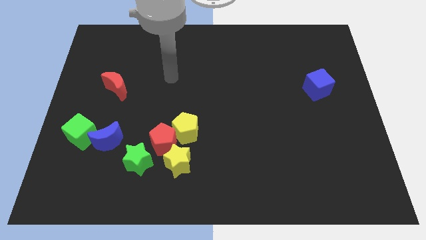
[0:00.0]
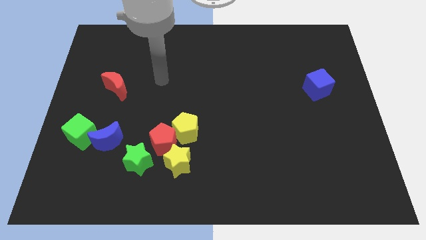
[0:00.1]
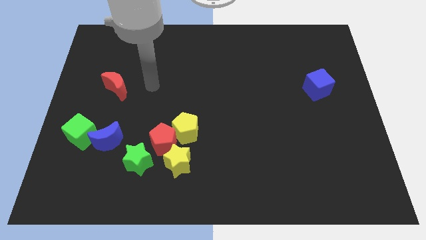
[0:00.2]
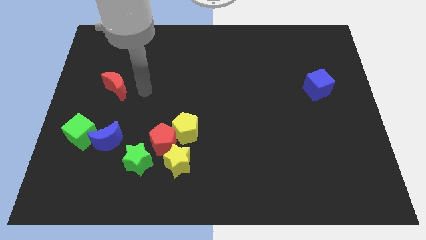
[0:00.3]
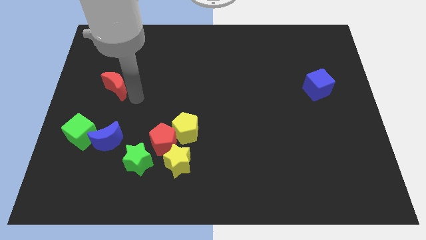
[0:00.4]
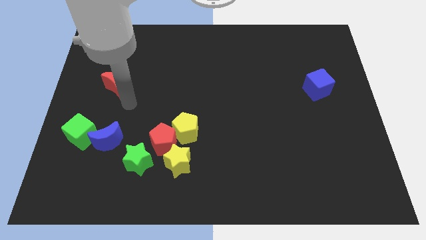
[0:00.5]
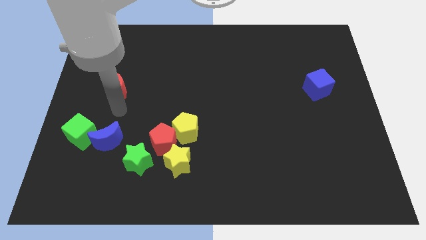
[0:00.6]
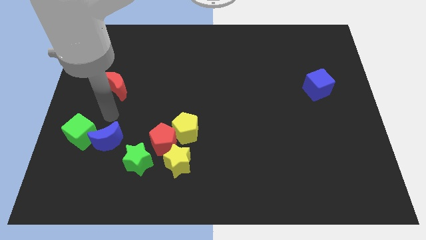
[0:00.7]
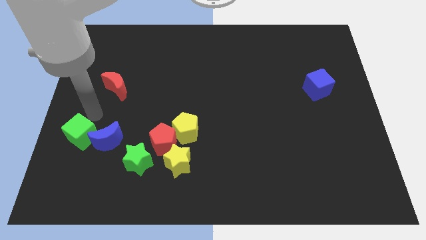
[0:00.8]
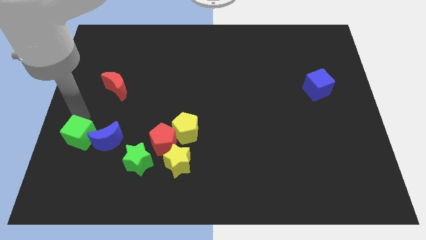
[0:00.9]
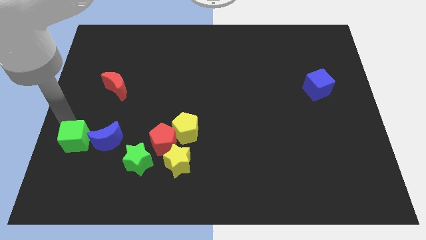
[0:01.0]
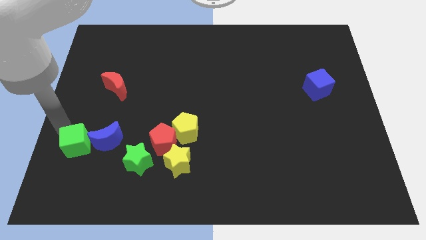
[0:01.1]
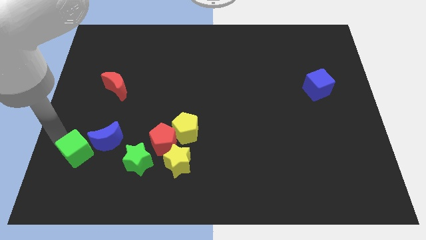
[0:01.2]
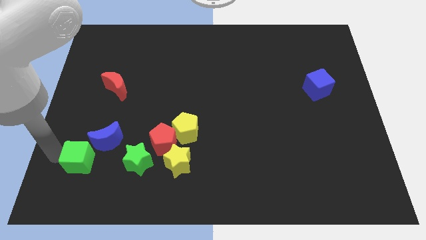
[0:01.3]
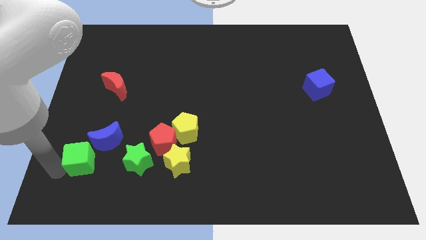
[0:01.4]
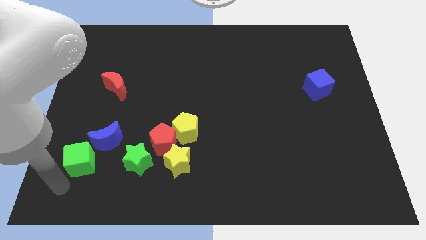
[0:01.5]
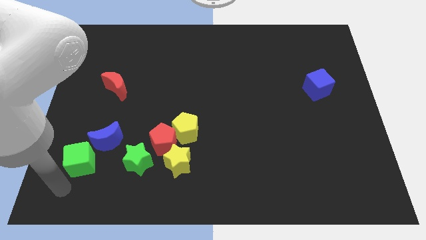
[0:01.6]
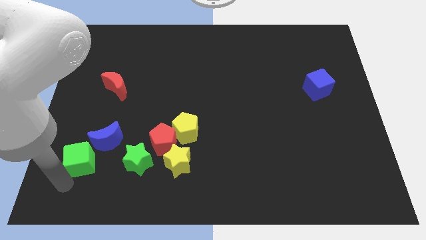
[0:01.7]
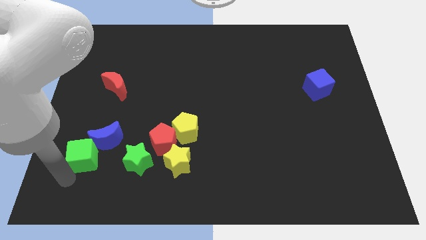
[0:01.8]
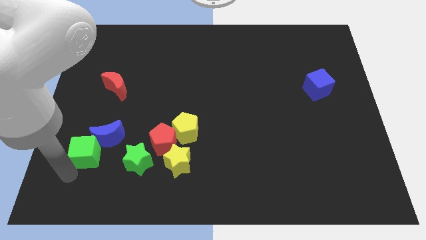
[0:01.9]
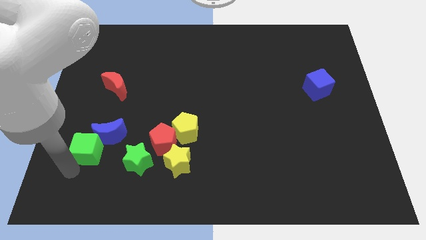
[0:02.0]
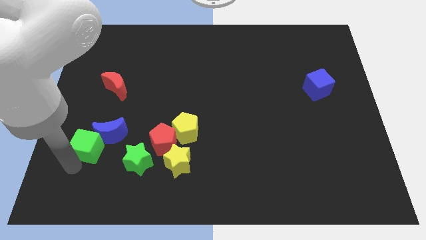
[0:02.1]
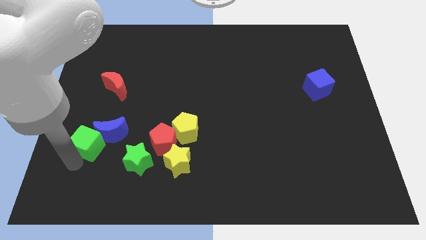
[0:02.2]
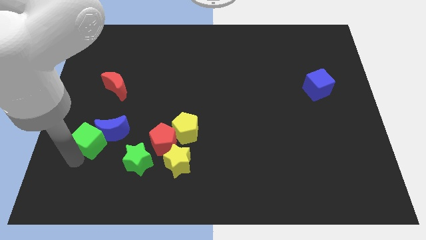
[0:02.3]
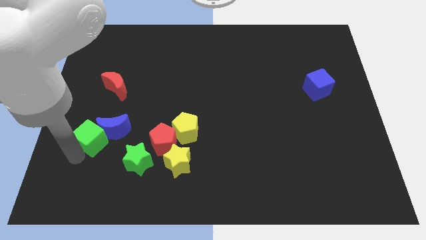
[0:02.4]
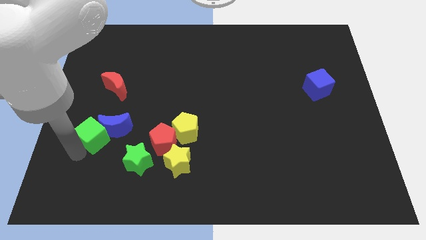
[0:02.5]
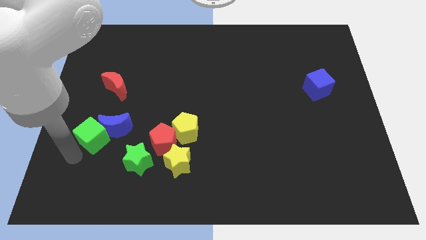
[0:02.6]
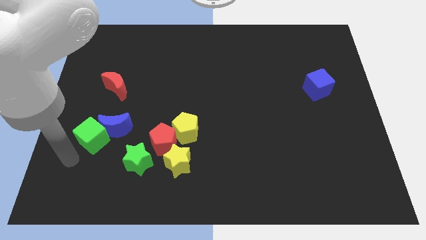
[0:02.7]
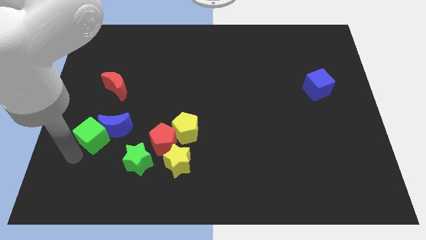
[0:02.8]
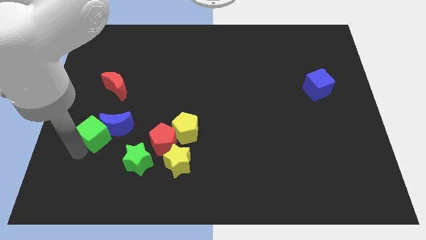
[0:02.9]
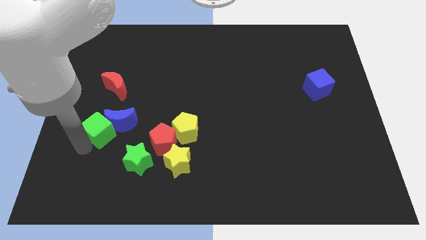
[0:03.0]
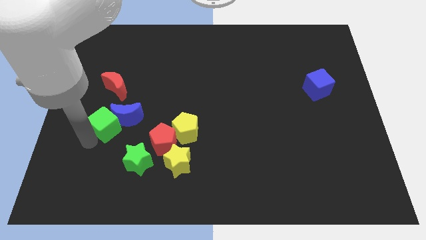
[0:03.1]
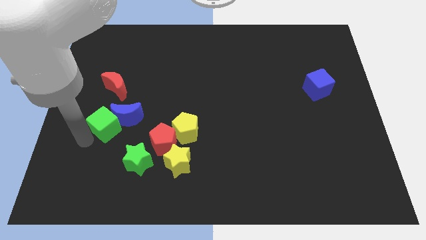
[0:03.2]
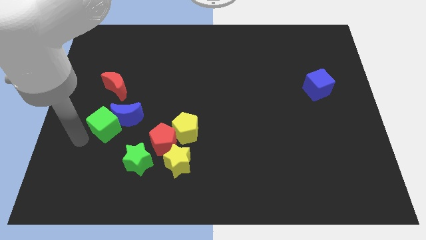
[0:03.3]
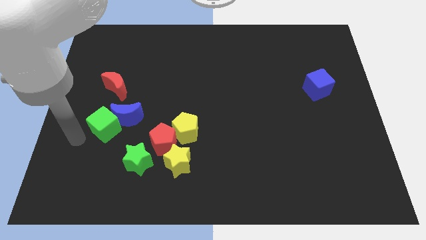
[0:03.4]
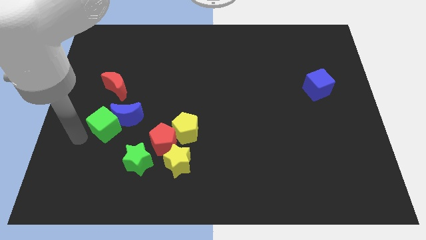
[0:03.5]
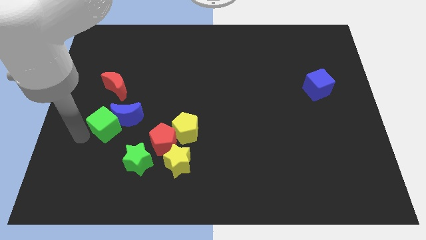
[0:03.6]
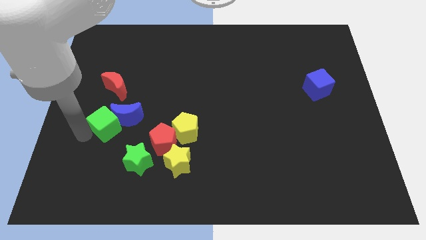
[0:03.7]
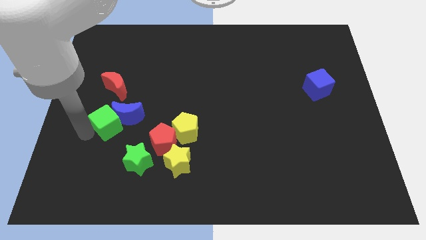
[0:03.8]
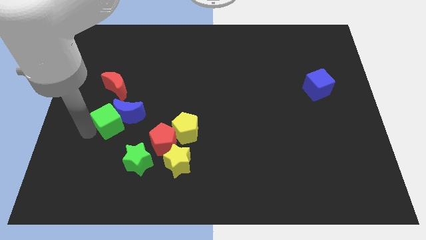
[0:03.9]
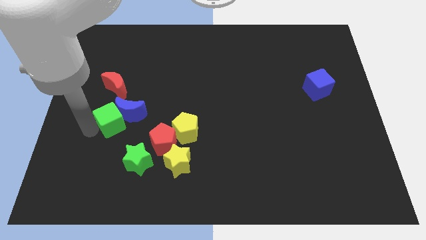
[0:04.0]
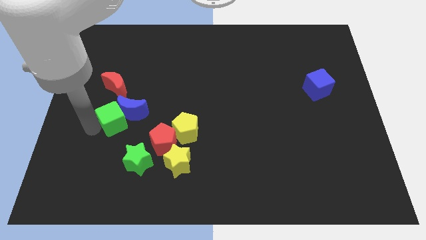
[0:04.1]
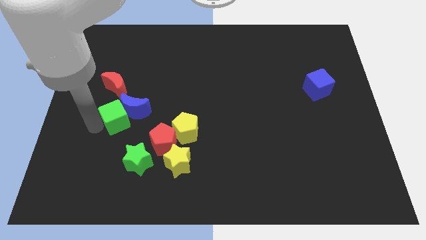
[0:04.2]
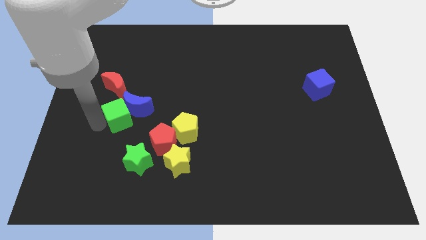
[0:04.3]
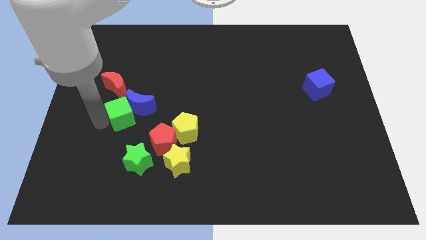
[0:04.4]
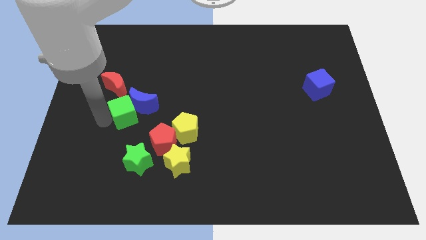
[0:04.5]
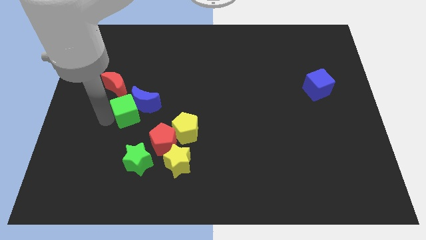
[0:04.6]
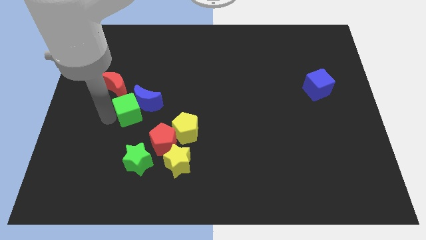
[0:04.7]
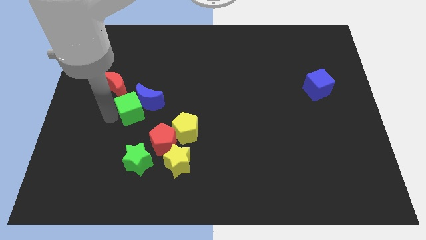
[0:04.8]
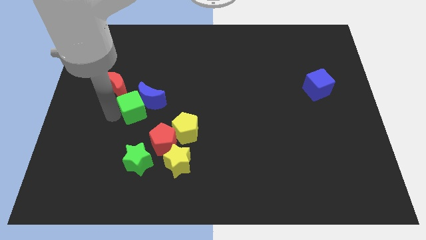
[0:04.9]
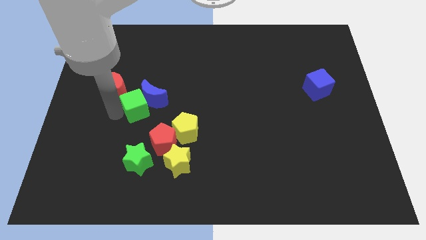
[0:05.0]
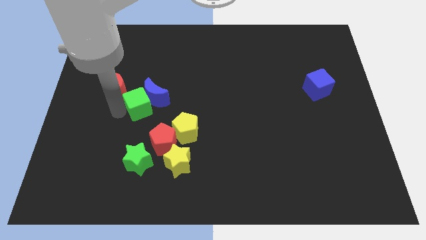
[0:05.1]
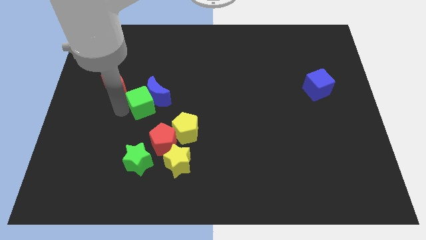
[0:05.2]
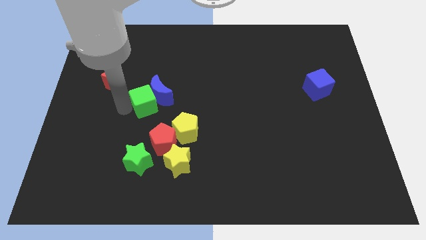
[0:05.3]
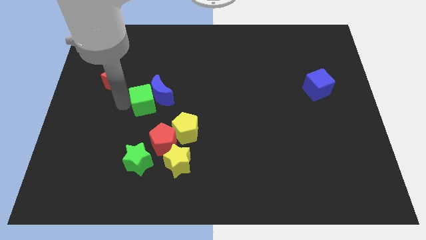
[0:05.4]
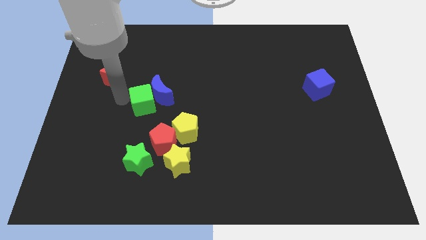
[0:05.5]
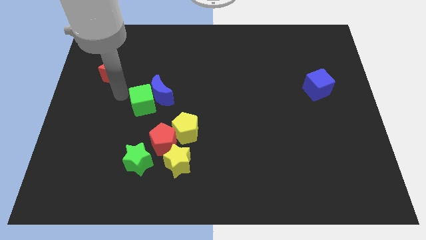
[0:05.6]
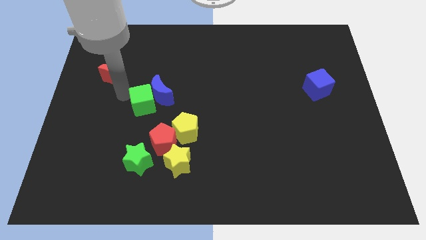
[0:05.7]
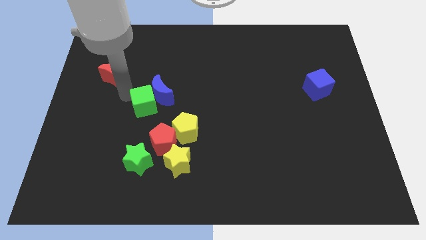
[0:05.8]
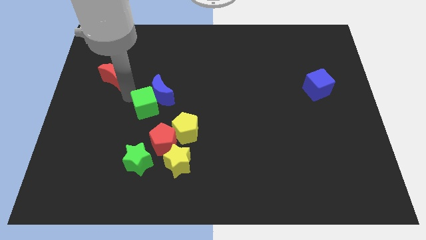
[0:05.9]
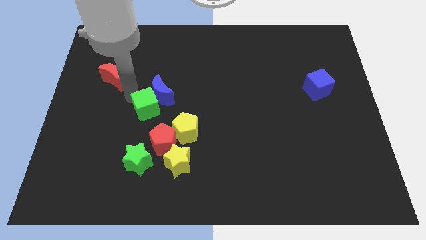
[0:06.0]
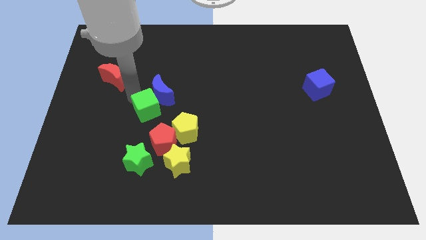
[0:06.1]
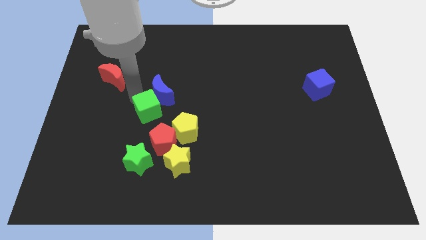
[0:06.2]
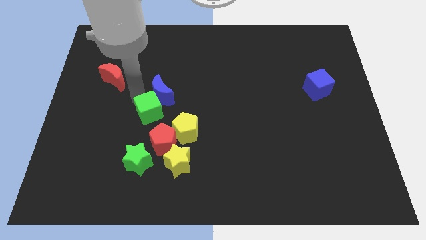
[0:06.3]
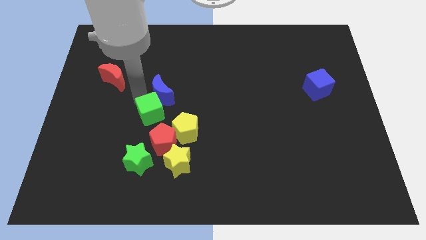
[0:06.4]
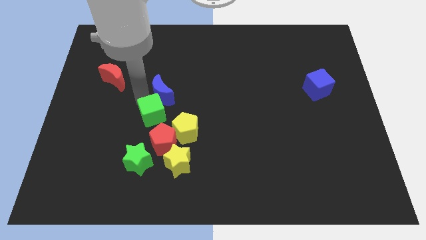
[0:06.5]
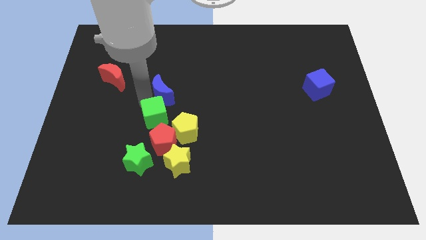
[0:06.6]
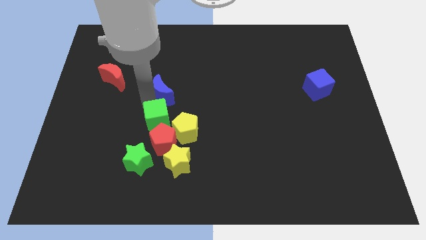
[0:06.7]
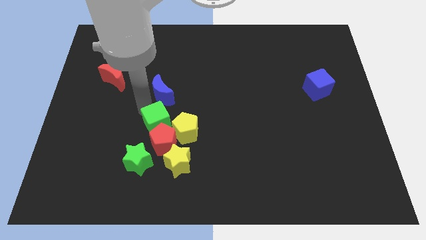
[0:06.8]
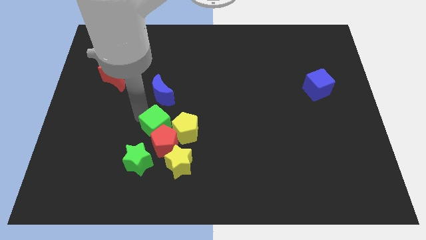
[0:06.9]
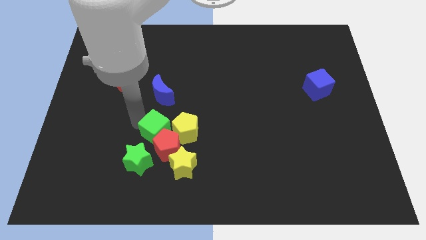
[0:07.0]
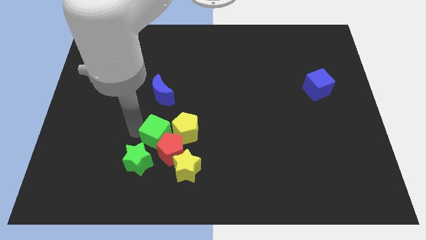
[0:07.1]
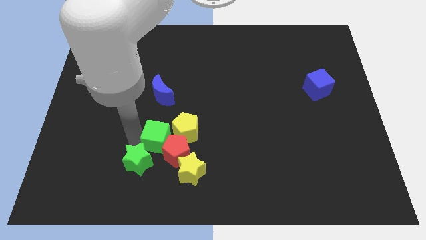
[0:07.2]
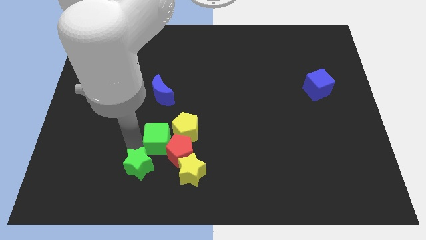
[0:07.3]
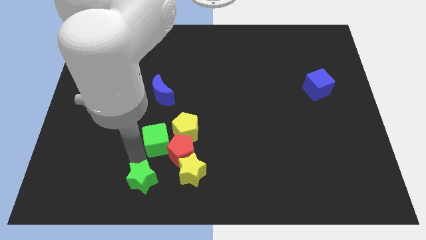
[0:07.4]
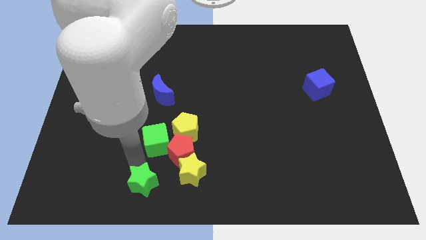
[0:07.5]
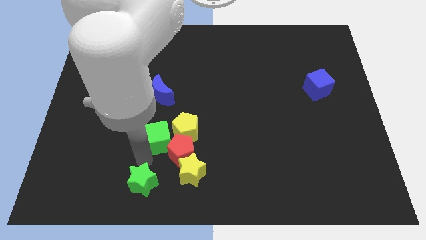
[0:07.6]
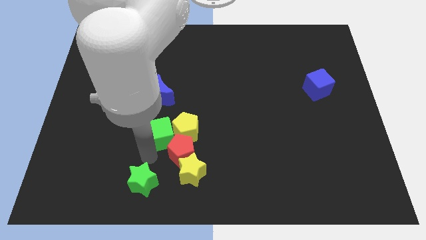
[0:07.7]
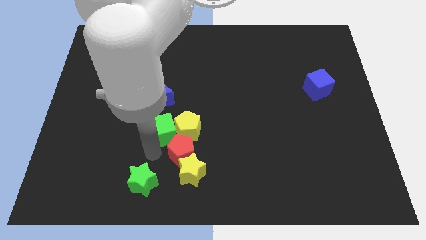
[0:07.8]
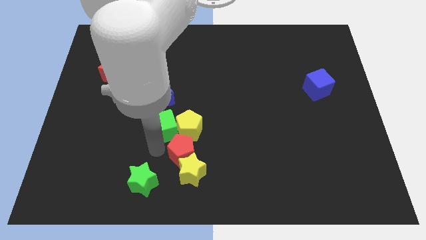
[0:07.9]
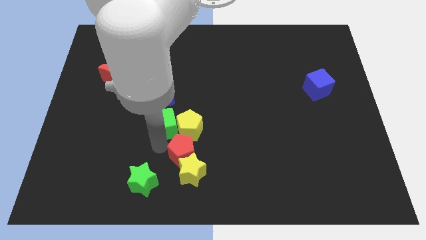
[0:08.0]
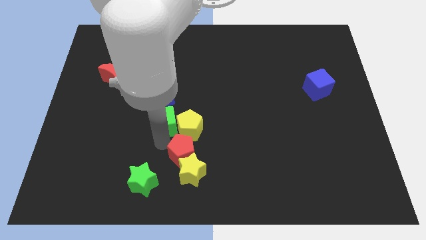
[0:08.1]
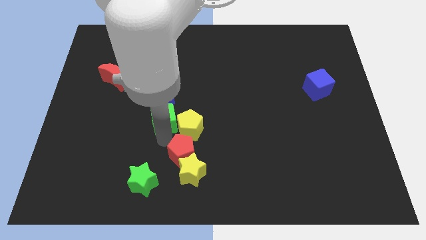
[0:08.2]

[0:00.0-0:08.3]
push the green cube to the center of the board
